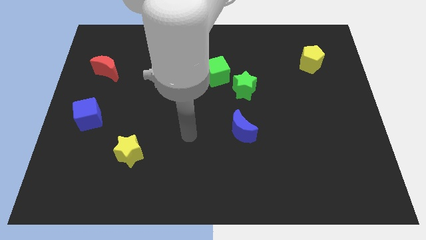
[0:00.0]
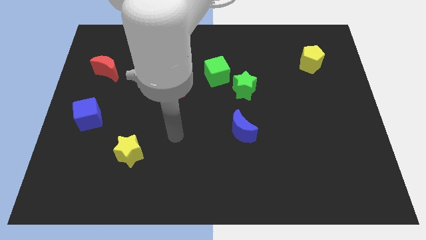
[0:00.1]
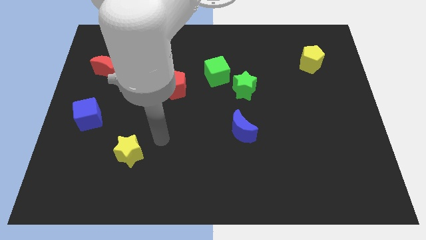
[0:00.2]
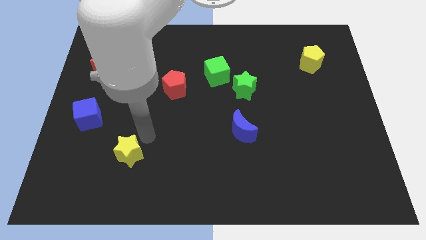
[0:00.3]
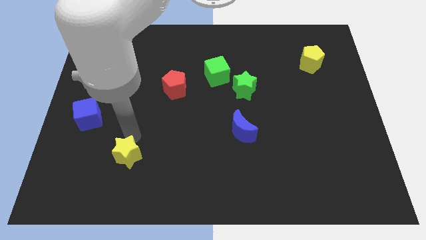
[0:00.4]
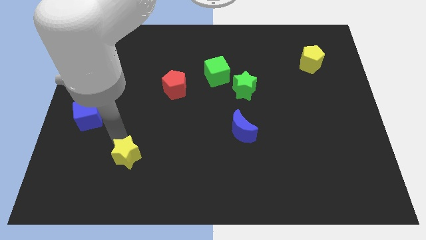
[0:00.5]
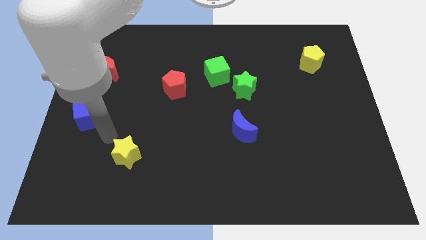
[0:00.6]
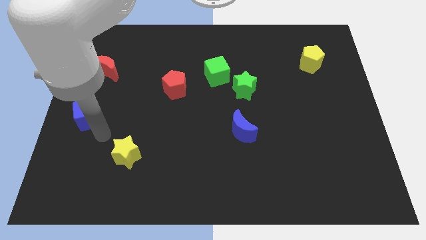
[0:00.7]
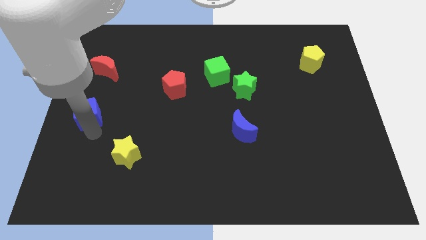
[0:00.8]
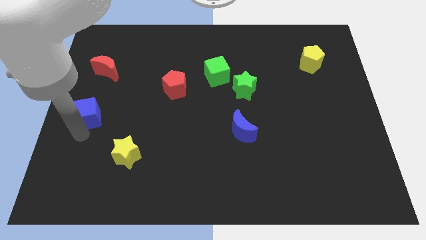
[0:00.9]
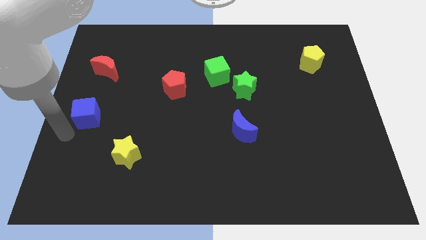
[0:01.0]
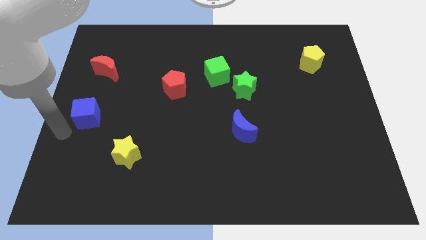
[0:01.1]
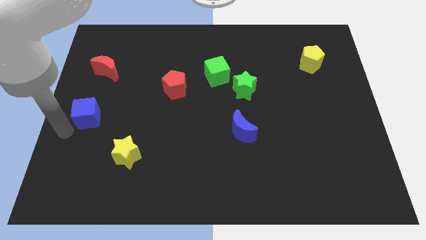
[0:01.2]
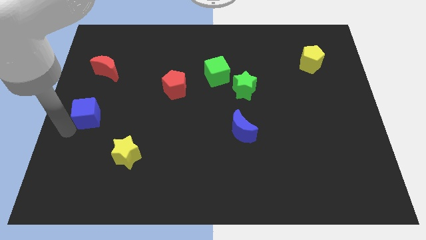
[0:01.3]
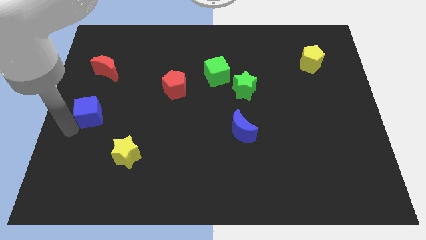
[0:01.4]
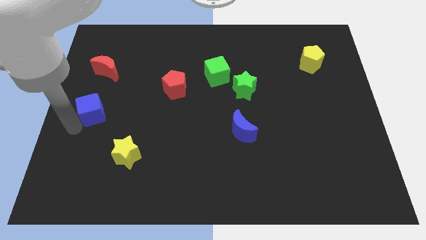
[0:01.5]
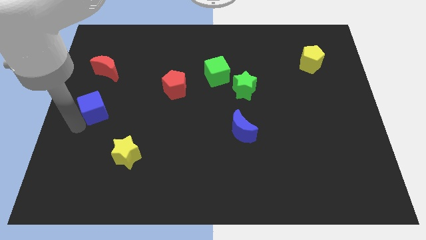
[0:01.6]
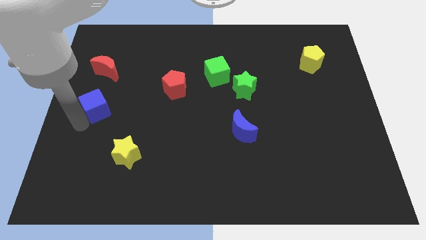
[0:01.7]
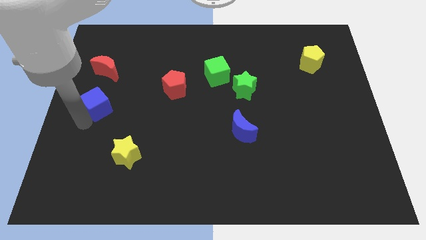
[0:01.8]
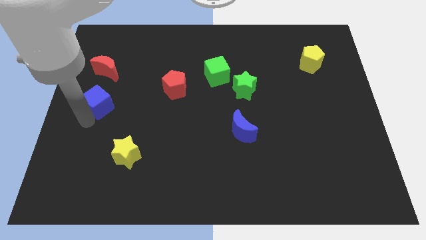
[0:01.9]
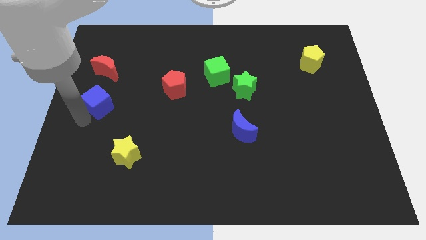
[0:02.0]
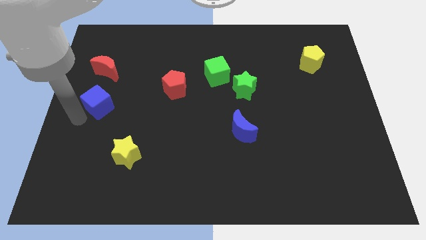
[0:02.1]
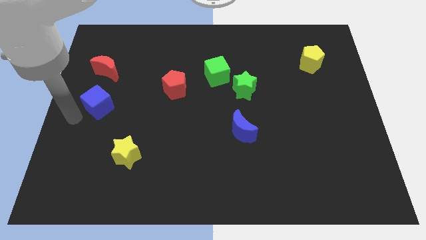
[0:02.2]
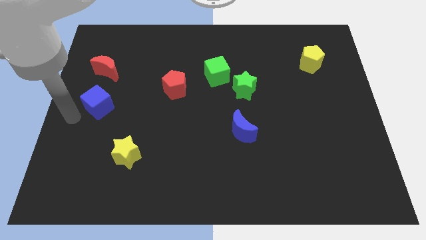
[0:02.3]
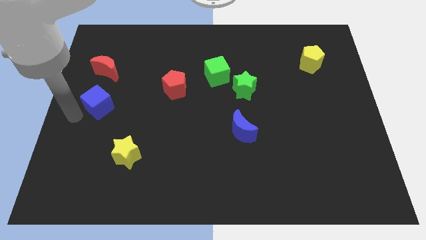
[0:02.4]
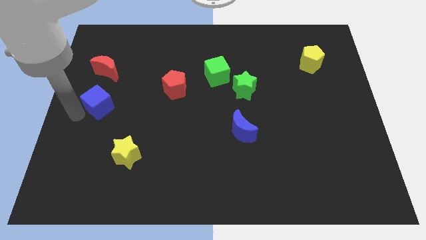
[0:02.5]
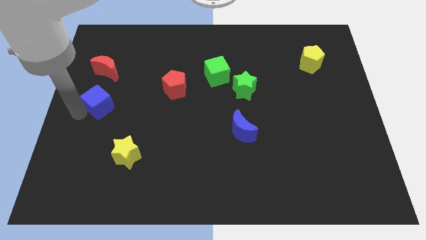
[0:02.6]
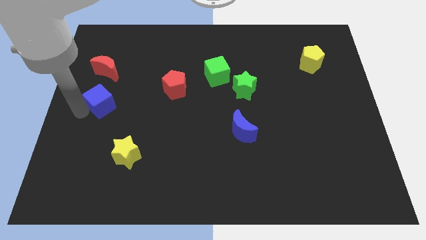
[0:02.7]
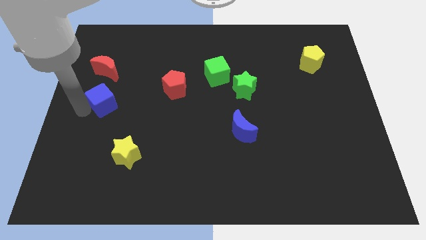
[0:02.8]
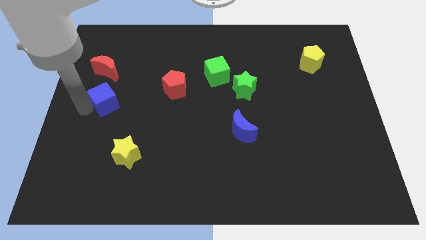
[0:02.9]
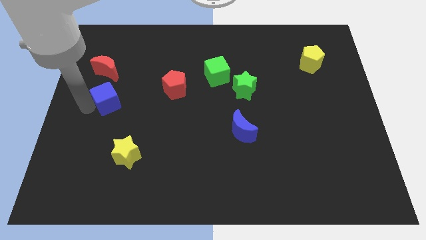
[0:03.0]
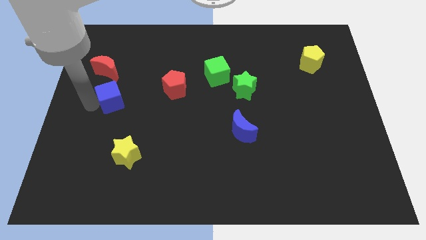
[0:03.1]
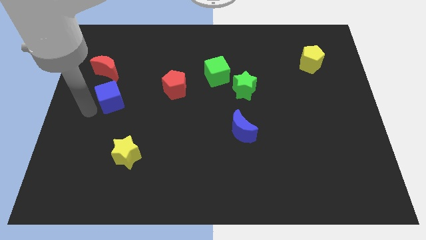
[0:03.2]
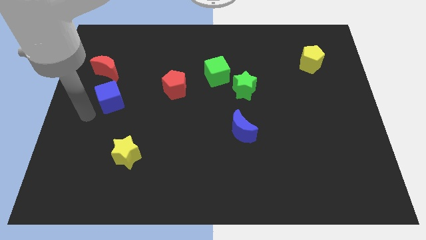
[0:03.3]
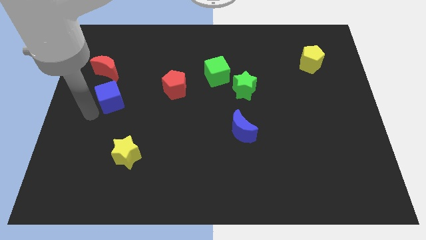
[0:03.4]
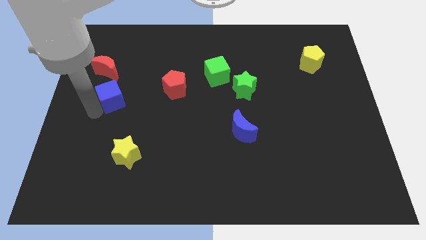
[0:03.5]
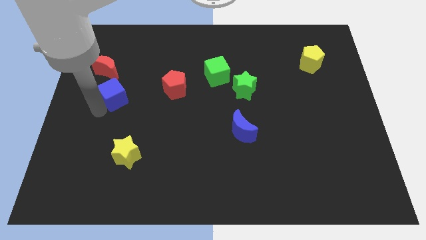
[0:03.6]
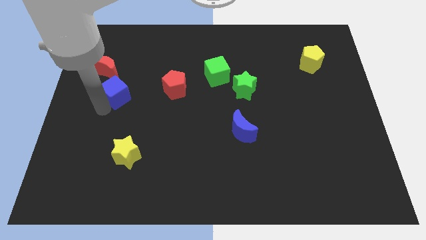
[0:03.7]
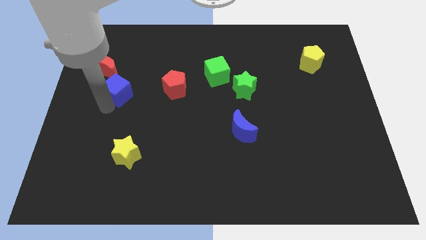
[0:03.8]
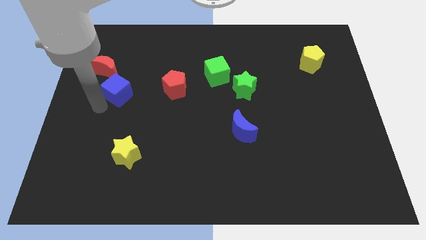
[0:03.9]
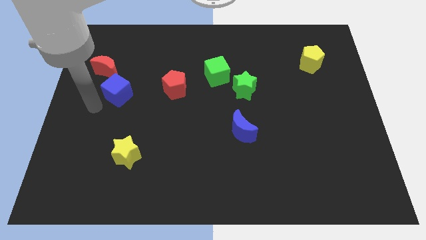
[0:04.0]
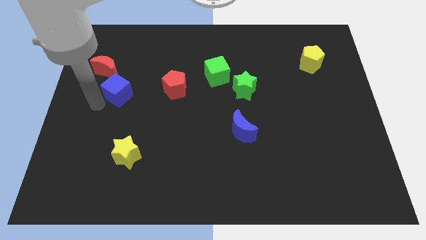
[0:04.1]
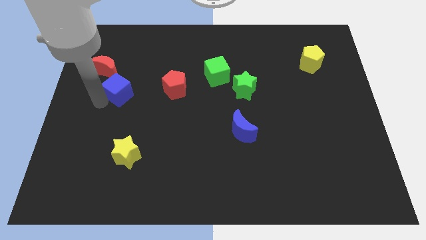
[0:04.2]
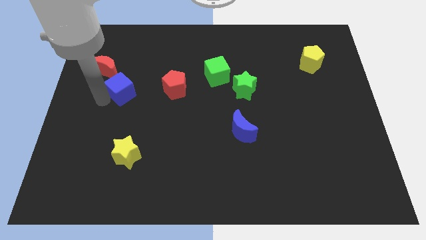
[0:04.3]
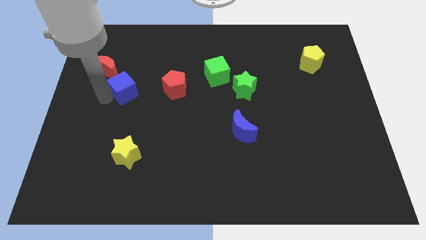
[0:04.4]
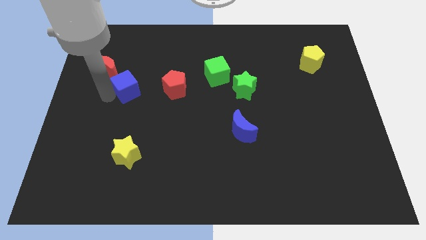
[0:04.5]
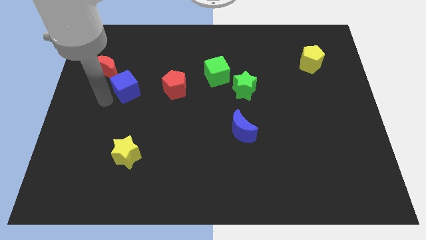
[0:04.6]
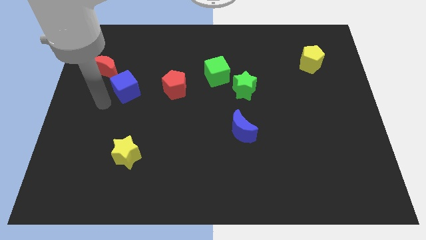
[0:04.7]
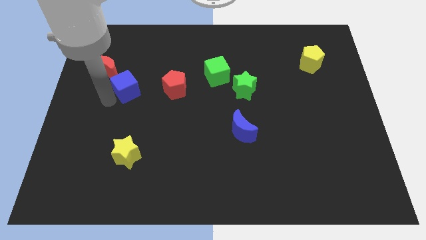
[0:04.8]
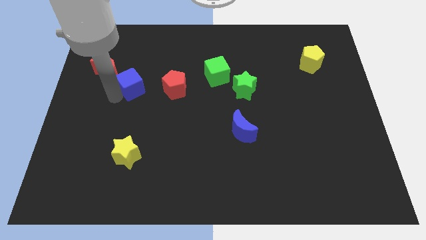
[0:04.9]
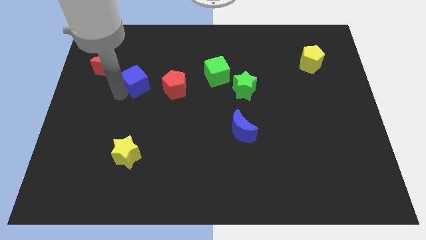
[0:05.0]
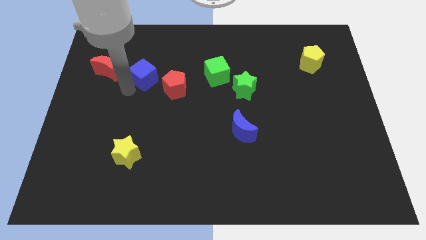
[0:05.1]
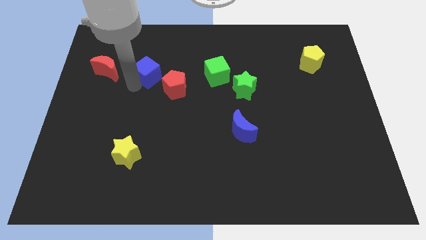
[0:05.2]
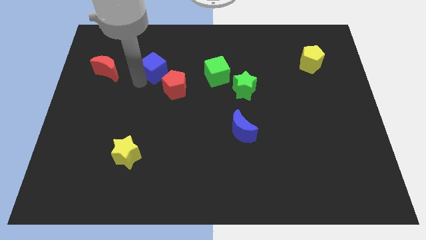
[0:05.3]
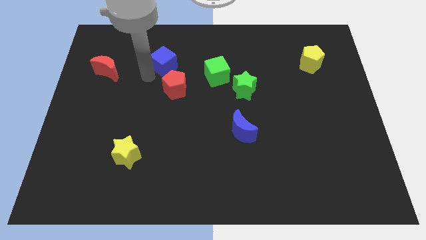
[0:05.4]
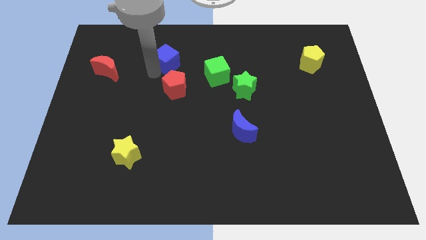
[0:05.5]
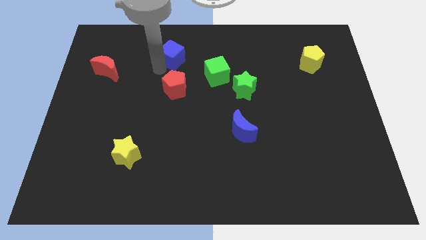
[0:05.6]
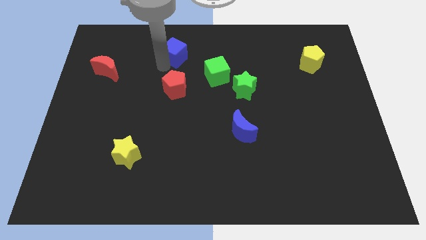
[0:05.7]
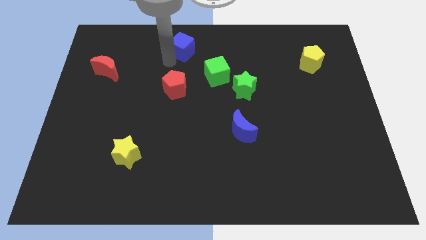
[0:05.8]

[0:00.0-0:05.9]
push the blue cube to the top
